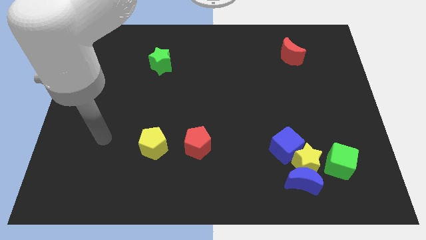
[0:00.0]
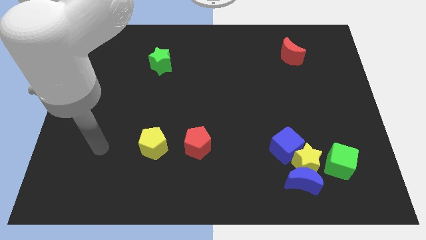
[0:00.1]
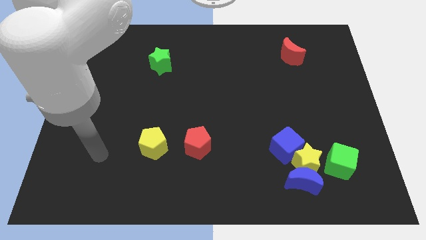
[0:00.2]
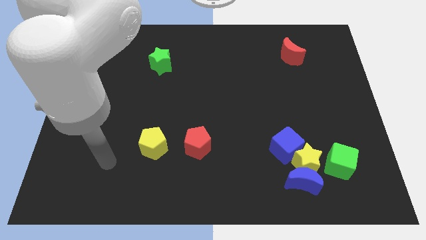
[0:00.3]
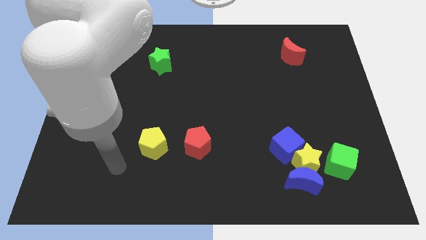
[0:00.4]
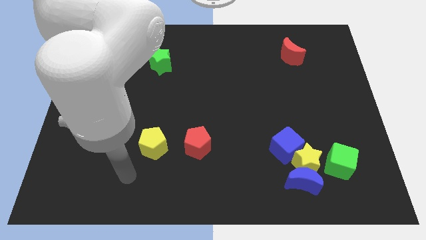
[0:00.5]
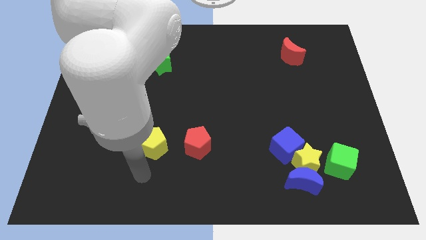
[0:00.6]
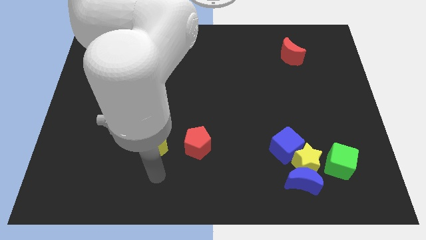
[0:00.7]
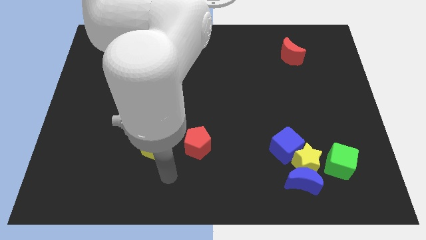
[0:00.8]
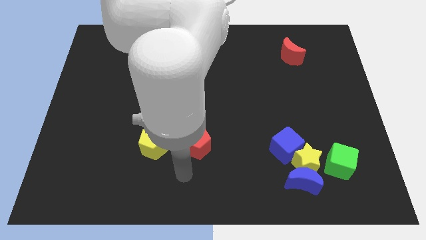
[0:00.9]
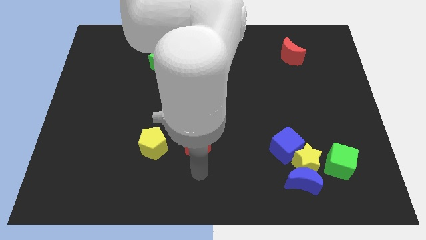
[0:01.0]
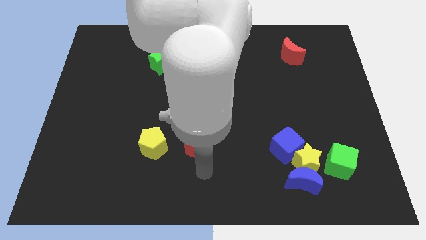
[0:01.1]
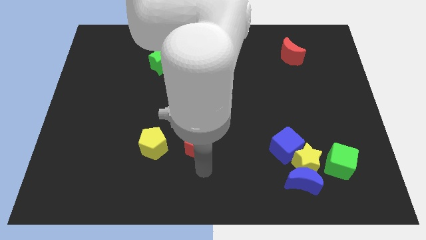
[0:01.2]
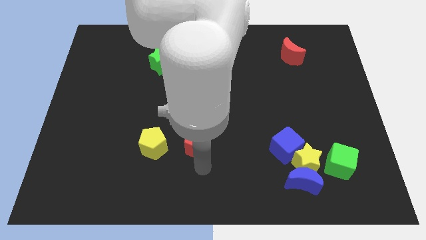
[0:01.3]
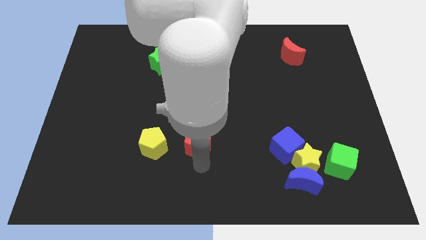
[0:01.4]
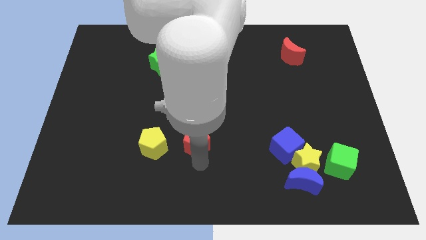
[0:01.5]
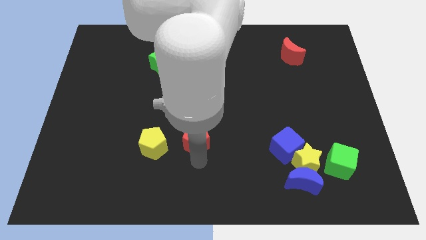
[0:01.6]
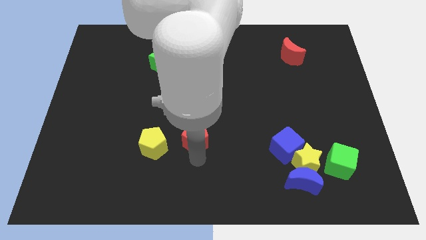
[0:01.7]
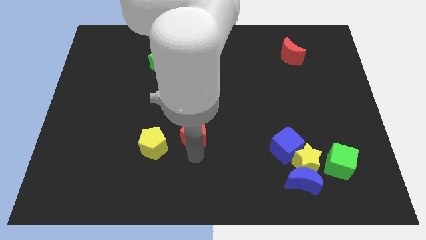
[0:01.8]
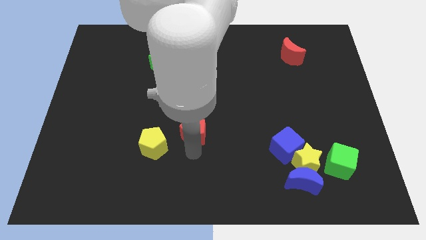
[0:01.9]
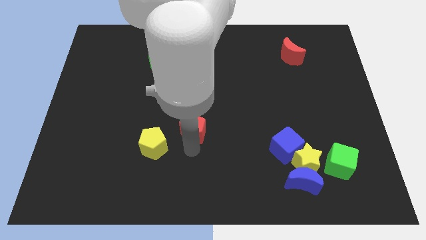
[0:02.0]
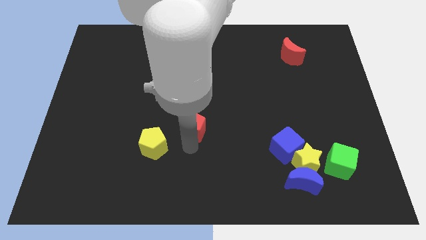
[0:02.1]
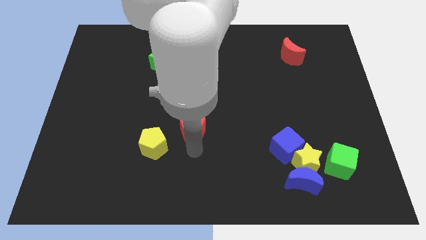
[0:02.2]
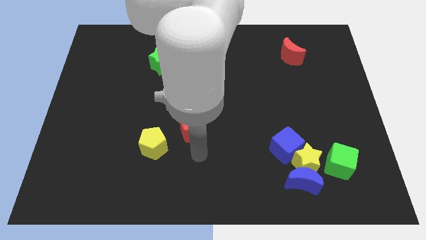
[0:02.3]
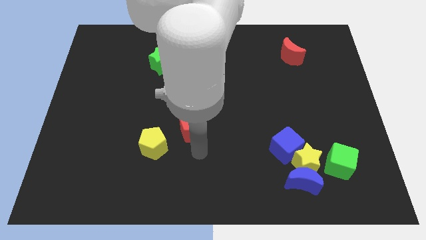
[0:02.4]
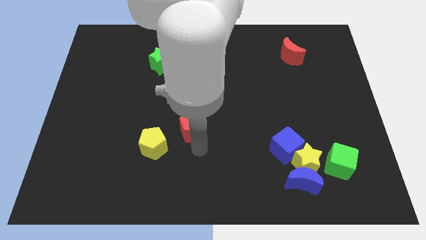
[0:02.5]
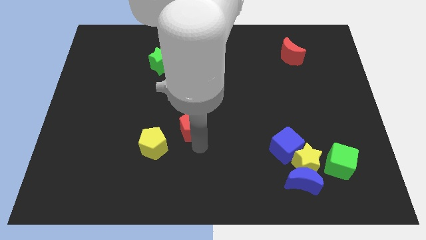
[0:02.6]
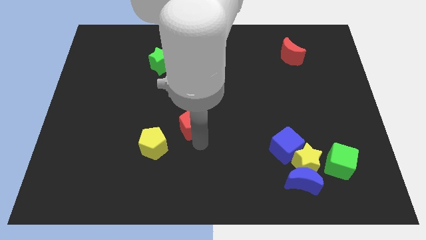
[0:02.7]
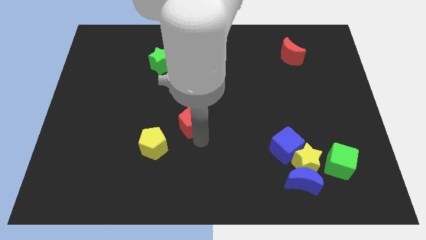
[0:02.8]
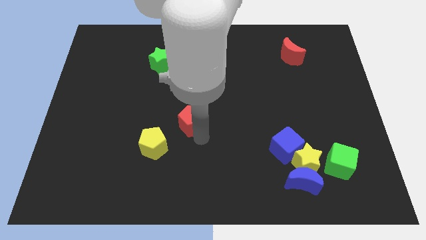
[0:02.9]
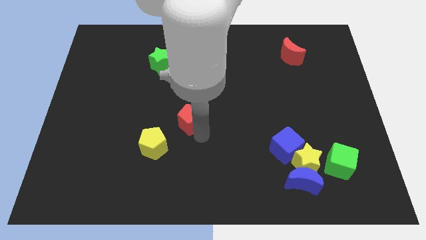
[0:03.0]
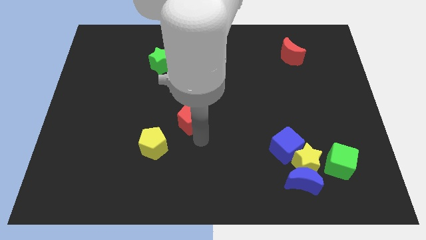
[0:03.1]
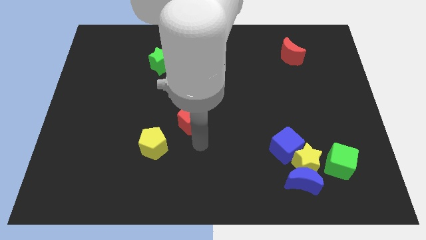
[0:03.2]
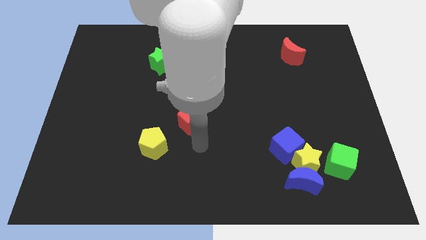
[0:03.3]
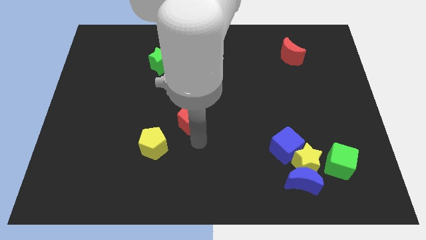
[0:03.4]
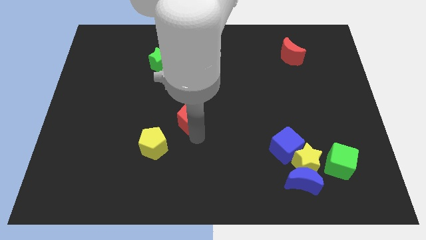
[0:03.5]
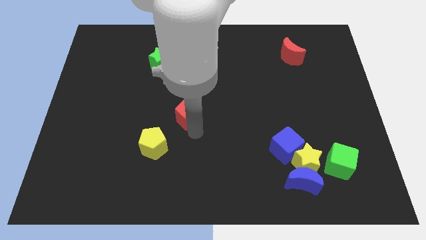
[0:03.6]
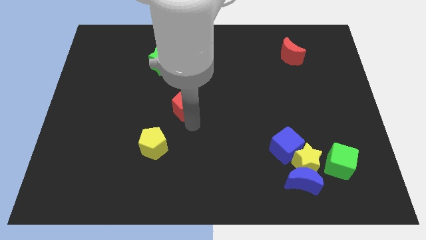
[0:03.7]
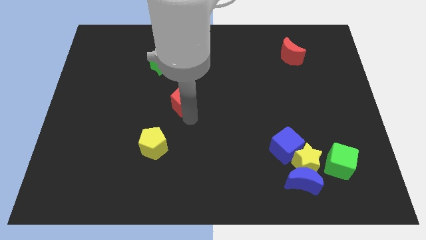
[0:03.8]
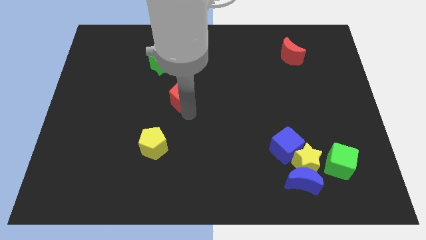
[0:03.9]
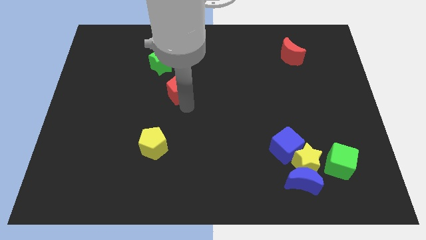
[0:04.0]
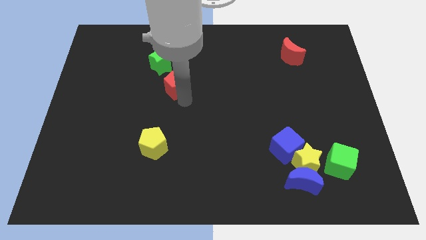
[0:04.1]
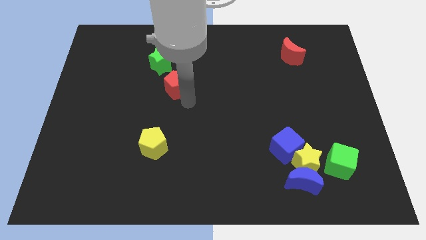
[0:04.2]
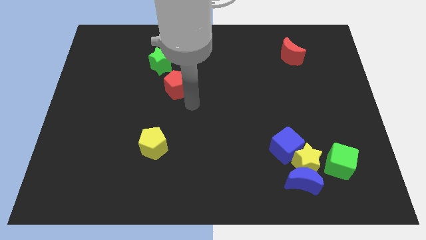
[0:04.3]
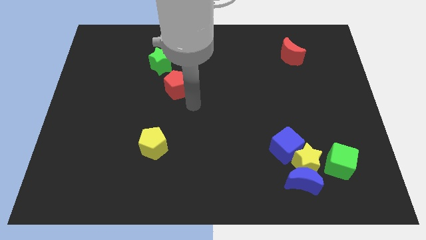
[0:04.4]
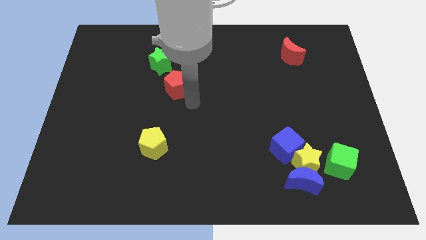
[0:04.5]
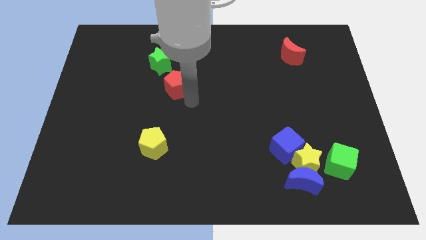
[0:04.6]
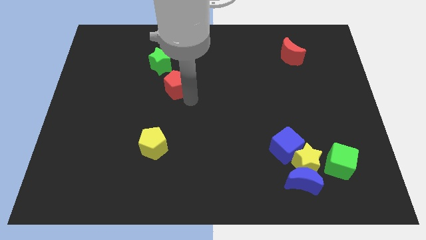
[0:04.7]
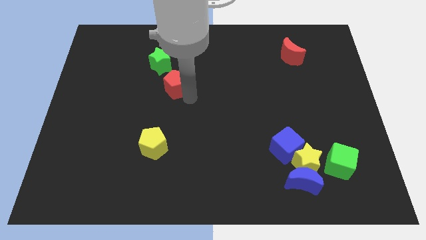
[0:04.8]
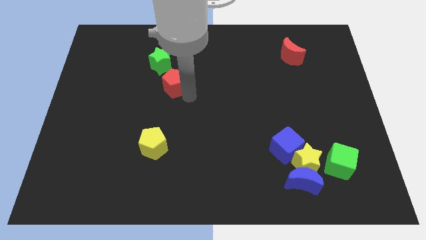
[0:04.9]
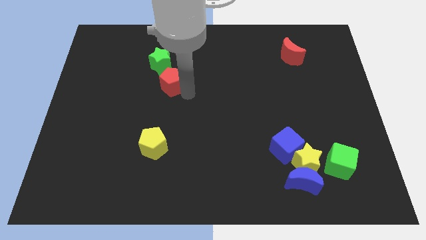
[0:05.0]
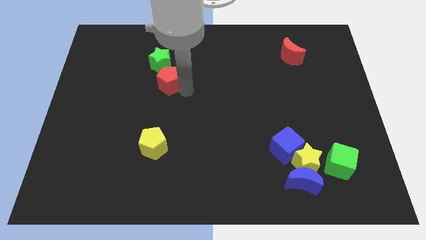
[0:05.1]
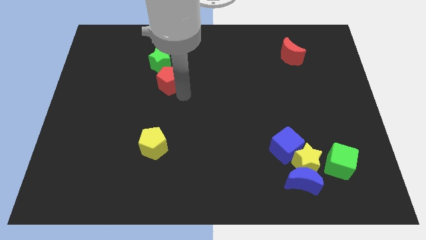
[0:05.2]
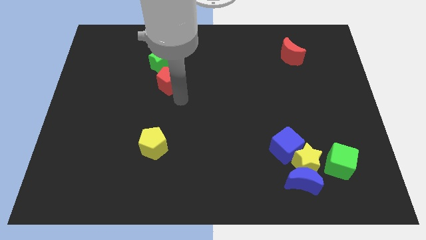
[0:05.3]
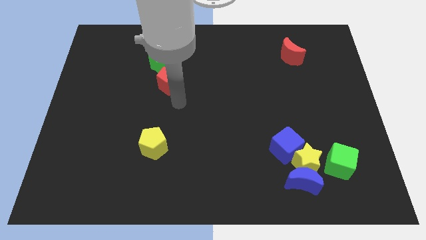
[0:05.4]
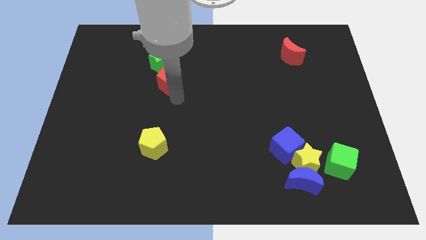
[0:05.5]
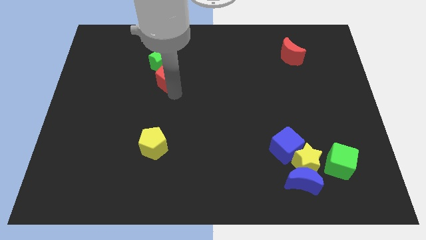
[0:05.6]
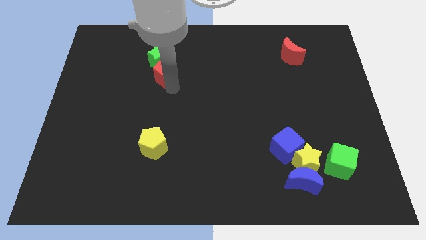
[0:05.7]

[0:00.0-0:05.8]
slide the red pentagon close to the green star
